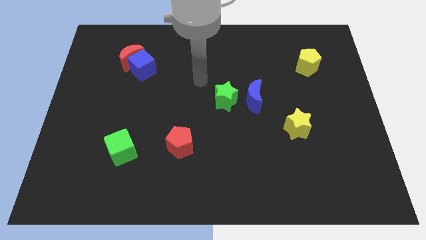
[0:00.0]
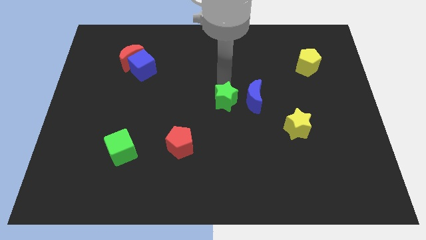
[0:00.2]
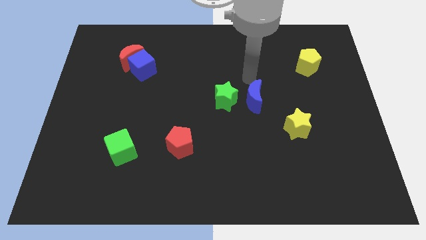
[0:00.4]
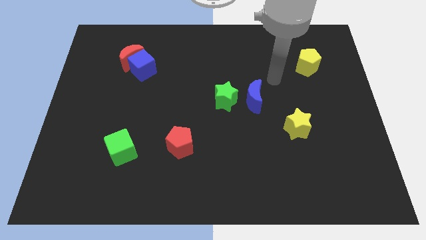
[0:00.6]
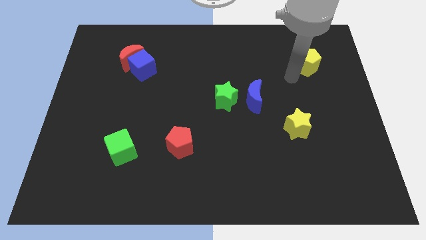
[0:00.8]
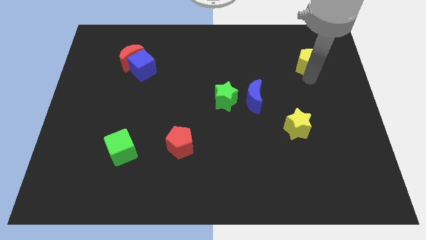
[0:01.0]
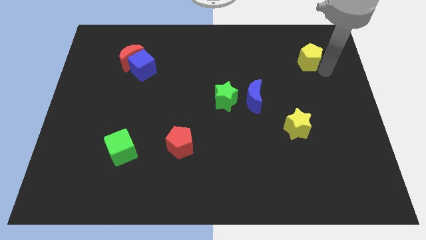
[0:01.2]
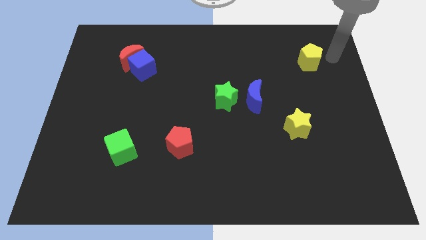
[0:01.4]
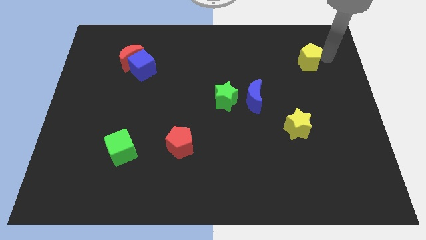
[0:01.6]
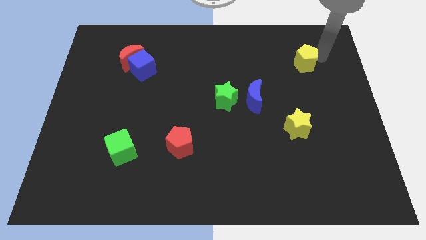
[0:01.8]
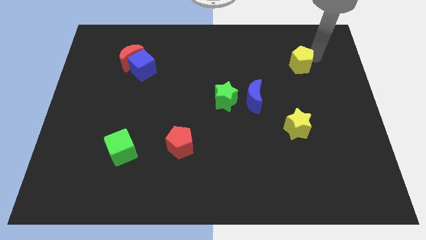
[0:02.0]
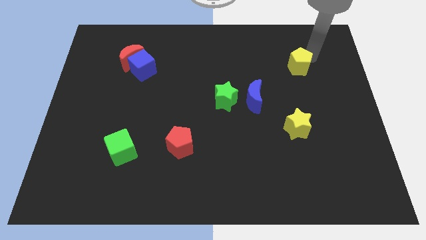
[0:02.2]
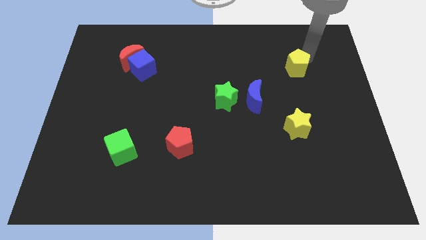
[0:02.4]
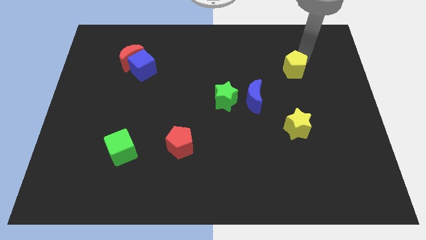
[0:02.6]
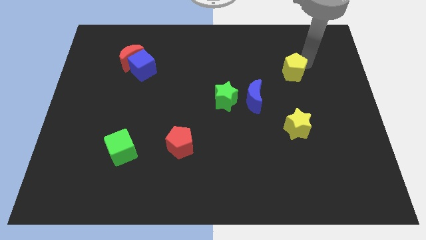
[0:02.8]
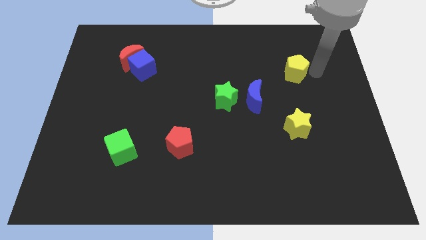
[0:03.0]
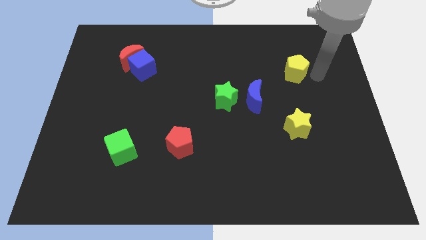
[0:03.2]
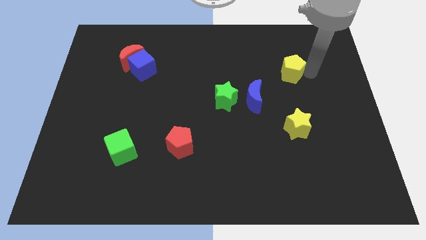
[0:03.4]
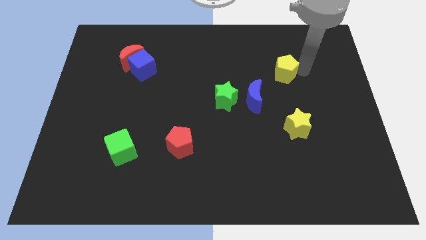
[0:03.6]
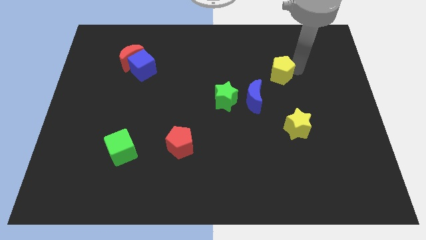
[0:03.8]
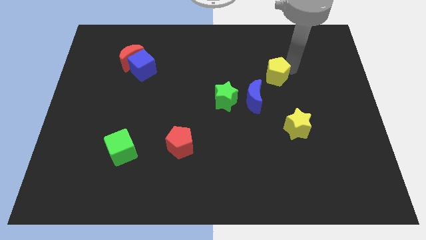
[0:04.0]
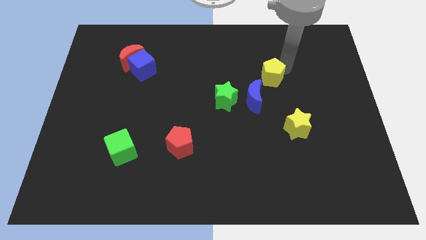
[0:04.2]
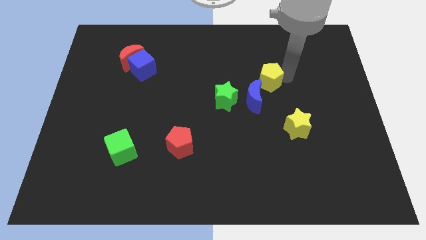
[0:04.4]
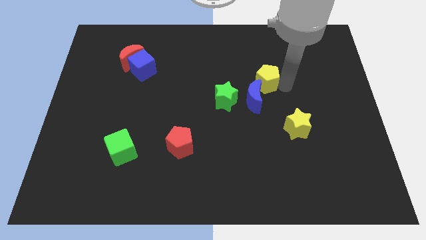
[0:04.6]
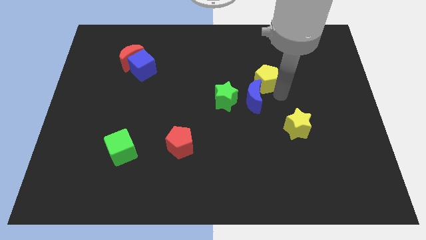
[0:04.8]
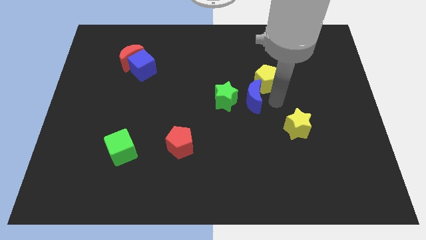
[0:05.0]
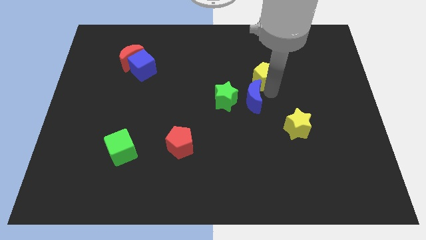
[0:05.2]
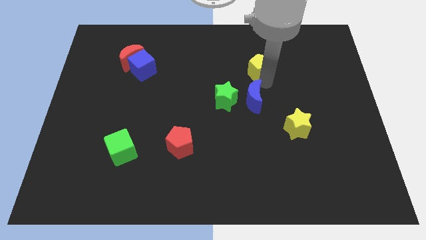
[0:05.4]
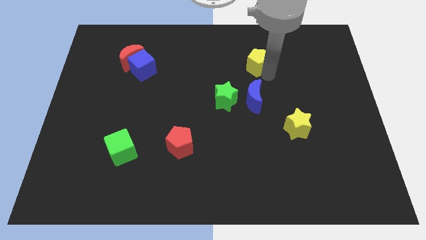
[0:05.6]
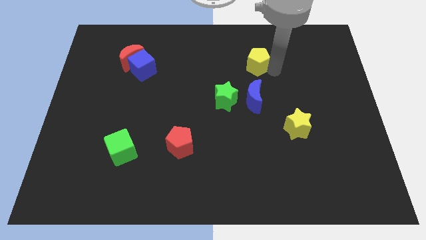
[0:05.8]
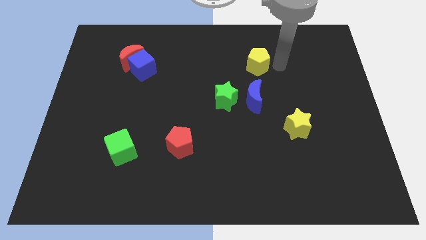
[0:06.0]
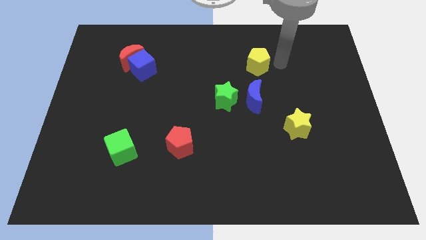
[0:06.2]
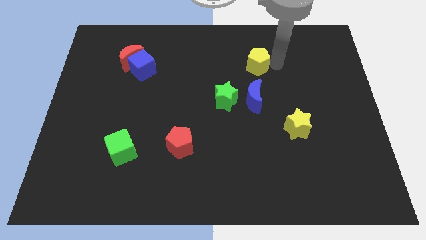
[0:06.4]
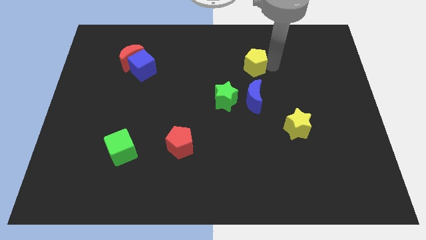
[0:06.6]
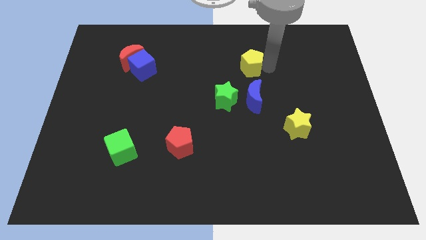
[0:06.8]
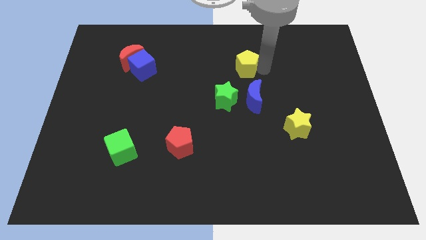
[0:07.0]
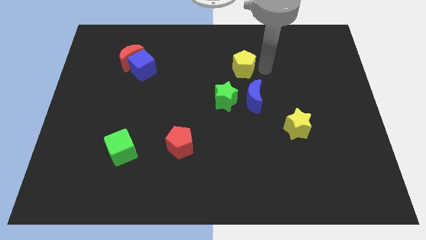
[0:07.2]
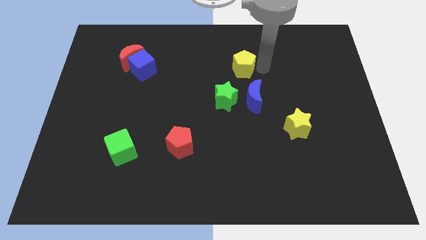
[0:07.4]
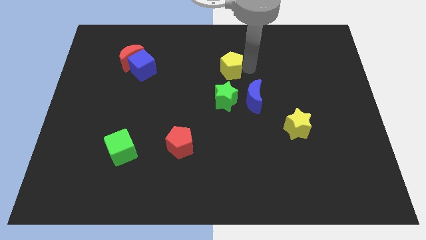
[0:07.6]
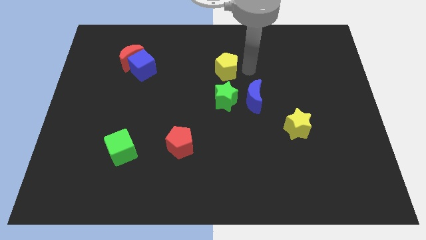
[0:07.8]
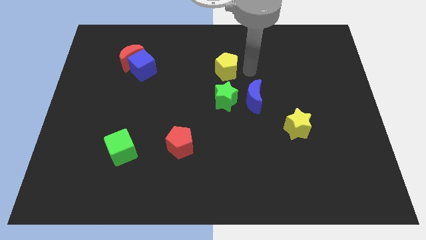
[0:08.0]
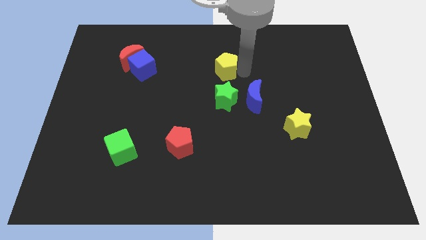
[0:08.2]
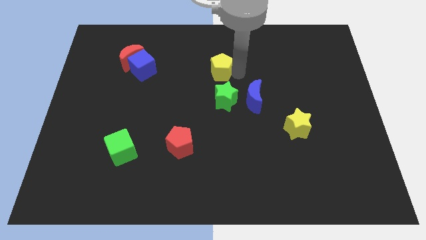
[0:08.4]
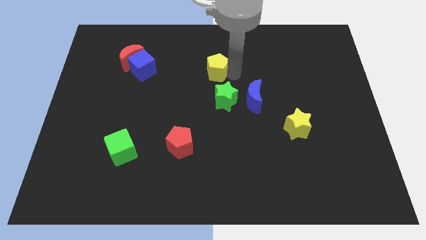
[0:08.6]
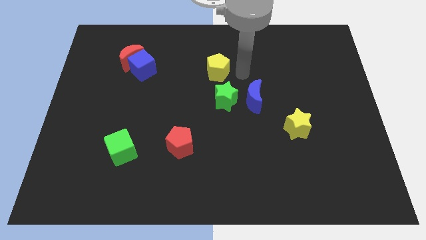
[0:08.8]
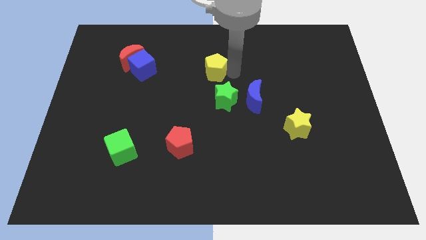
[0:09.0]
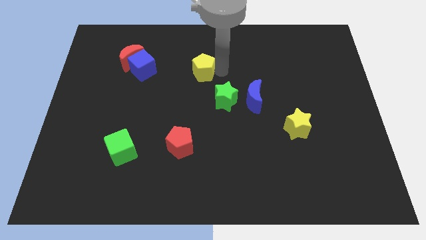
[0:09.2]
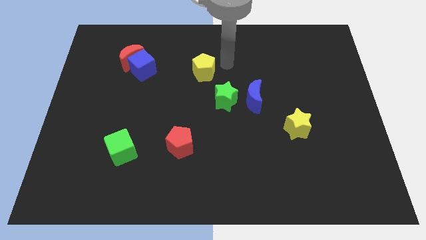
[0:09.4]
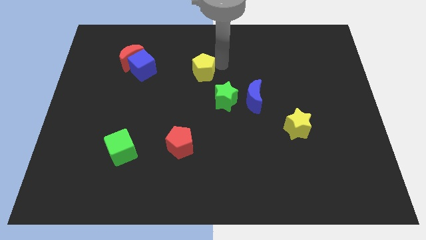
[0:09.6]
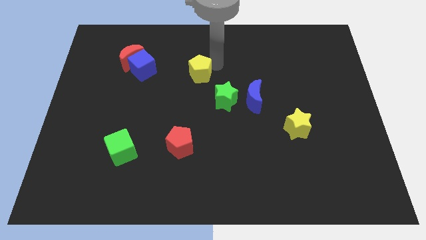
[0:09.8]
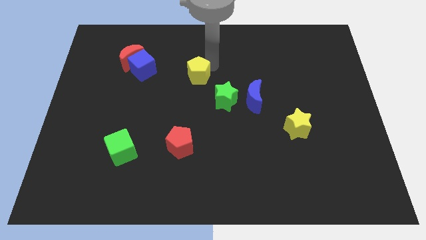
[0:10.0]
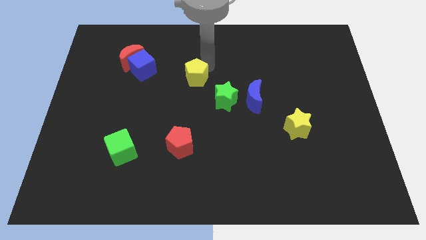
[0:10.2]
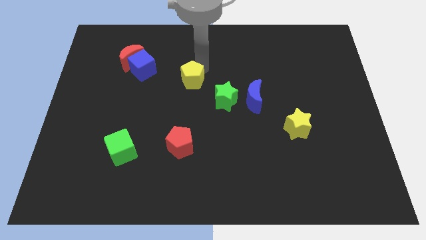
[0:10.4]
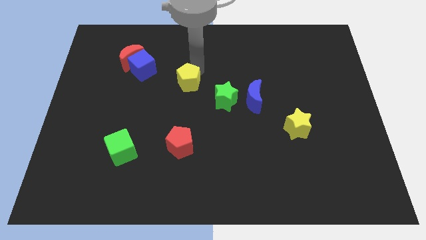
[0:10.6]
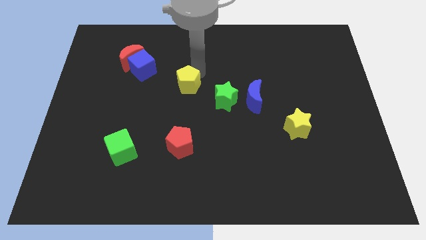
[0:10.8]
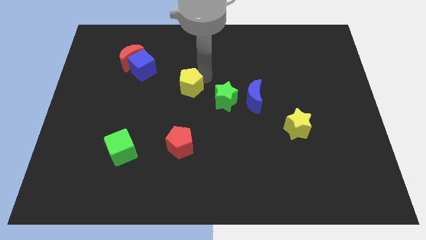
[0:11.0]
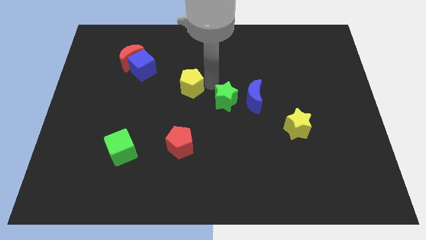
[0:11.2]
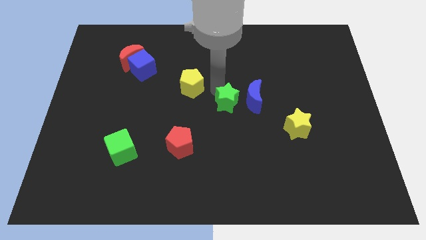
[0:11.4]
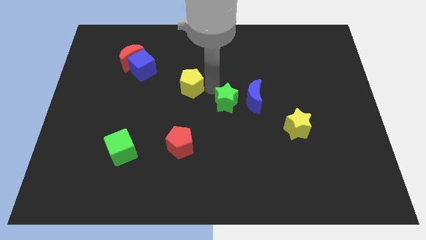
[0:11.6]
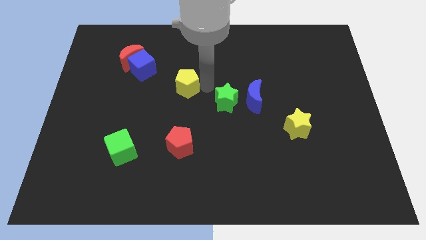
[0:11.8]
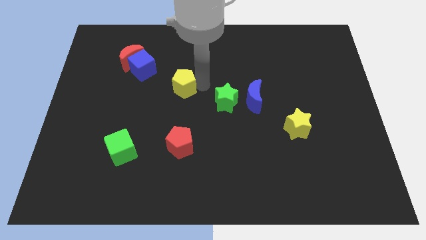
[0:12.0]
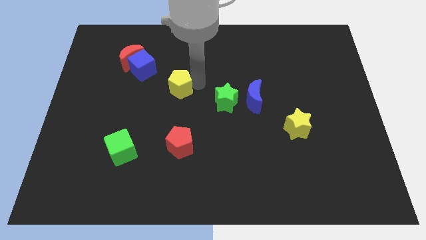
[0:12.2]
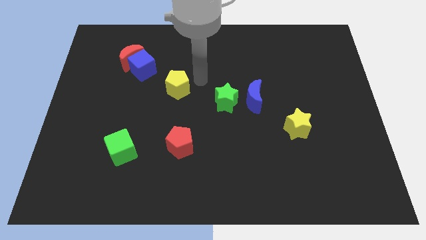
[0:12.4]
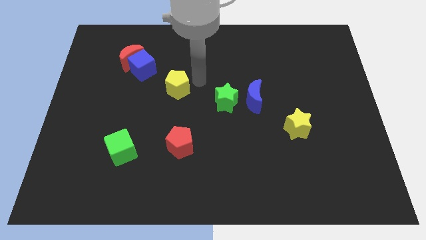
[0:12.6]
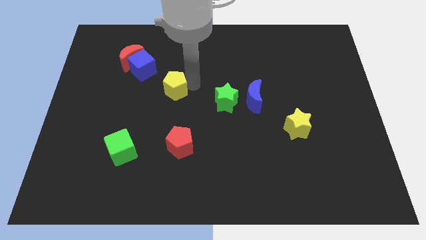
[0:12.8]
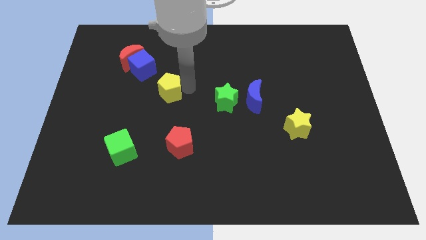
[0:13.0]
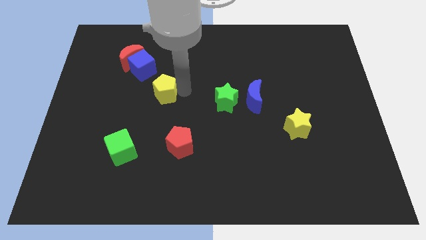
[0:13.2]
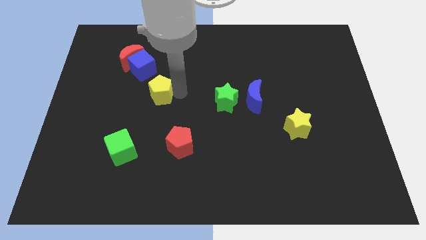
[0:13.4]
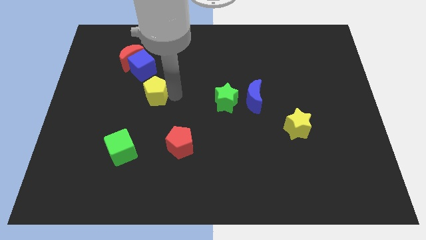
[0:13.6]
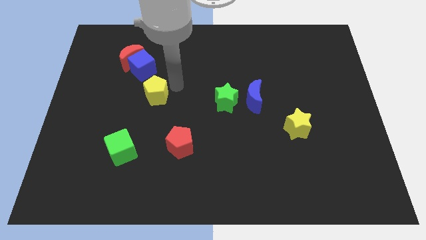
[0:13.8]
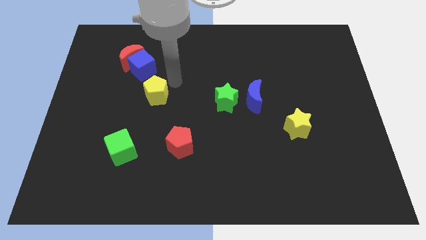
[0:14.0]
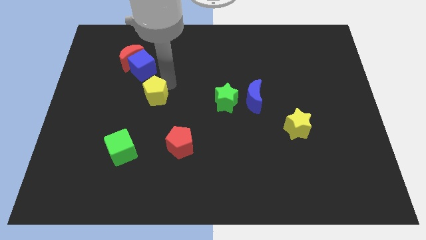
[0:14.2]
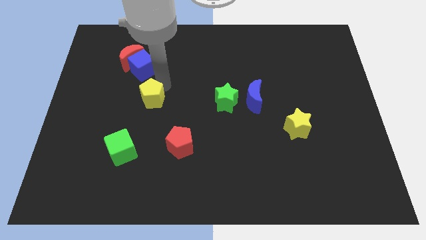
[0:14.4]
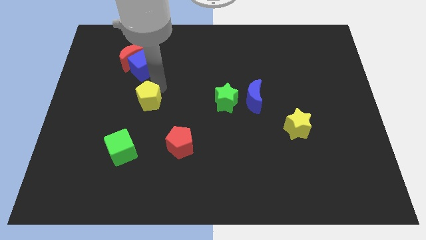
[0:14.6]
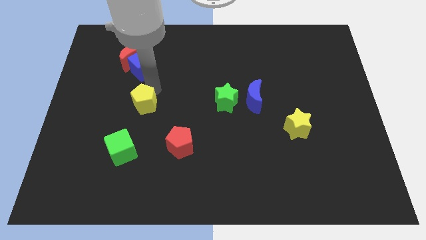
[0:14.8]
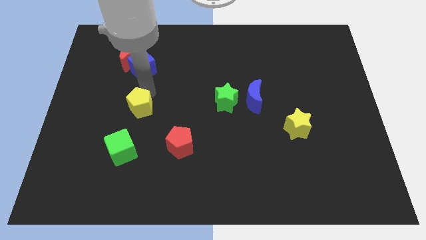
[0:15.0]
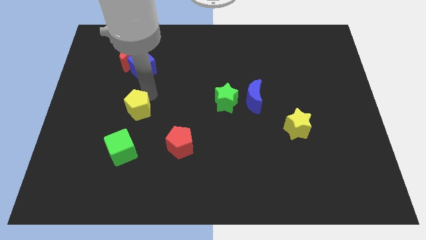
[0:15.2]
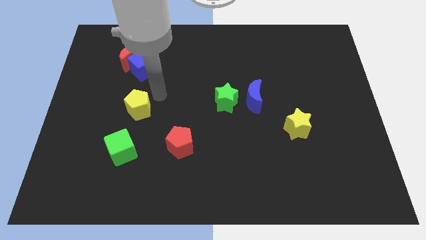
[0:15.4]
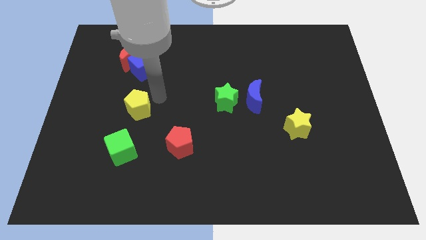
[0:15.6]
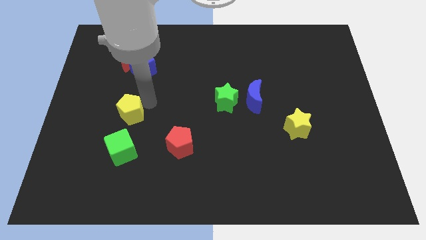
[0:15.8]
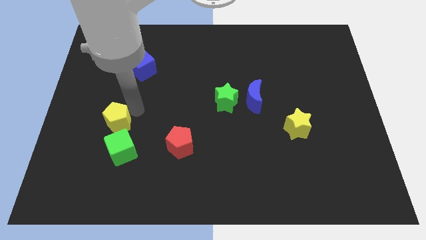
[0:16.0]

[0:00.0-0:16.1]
push the yellow pentagon diagonally up and to the left of the green cube
